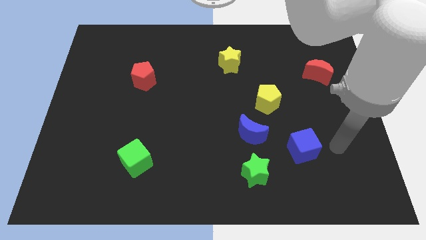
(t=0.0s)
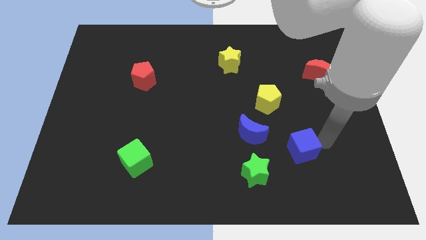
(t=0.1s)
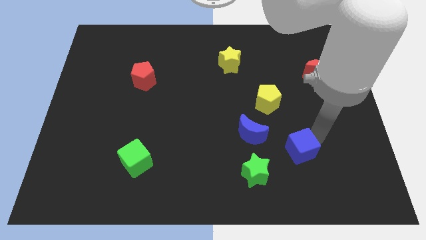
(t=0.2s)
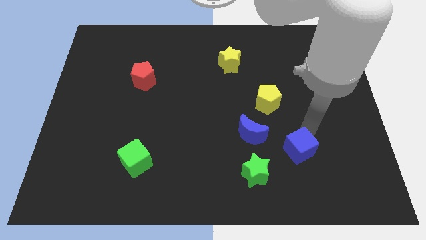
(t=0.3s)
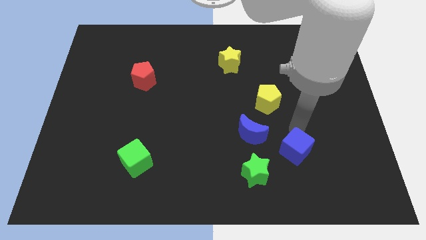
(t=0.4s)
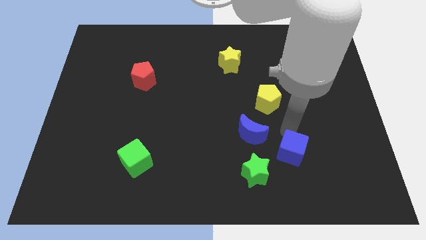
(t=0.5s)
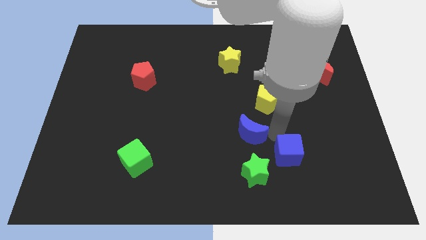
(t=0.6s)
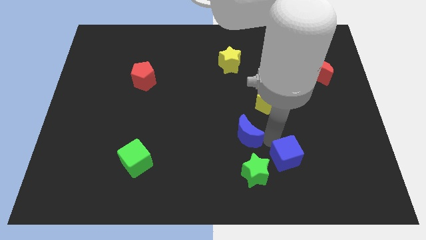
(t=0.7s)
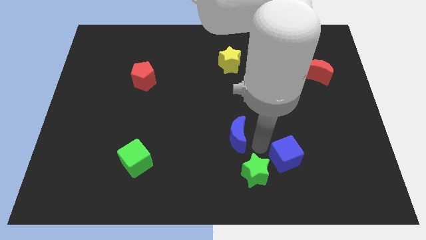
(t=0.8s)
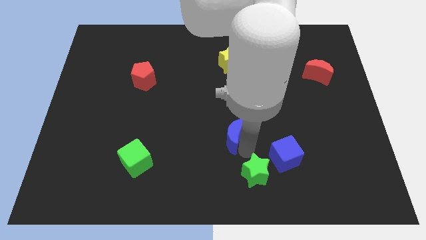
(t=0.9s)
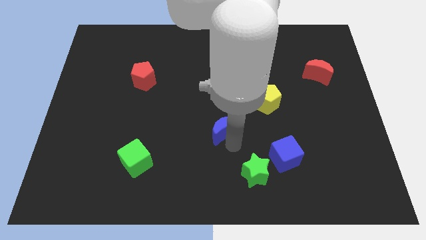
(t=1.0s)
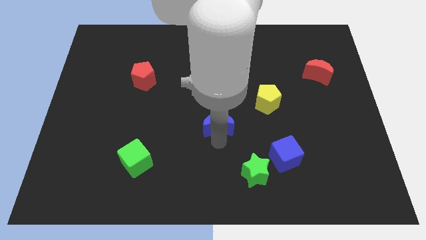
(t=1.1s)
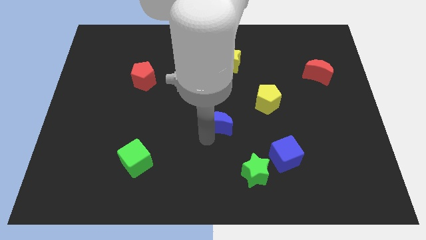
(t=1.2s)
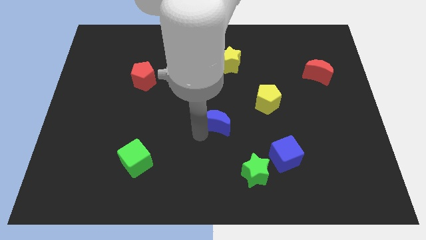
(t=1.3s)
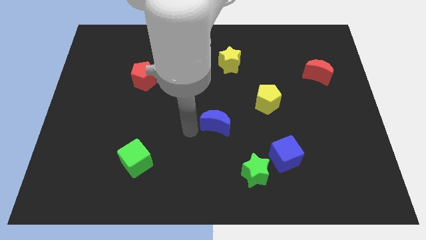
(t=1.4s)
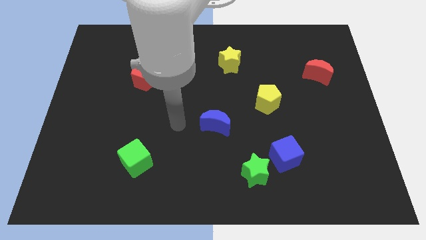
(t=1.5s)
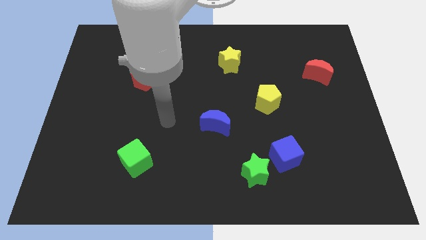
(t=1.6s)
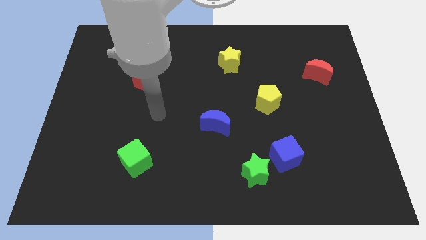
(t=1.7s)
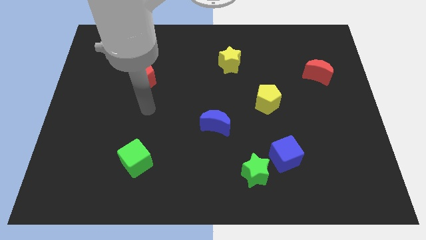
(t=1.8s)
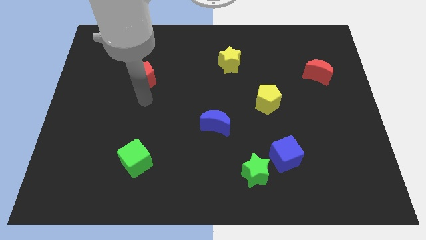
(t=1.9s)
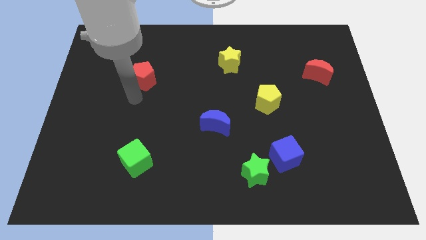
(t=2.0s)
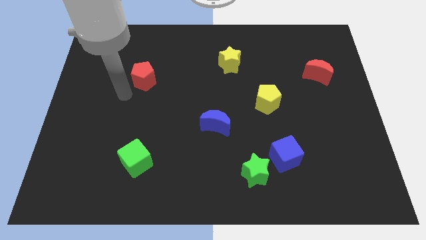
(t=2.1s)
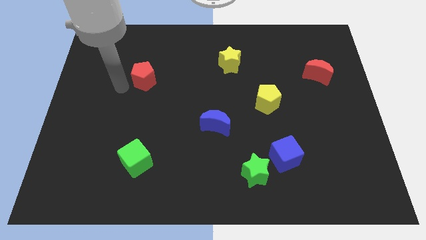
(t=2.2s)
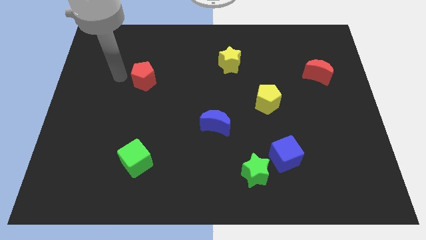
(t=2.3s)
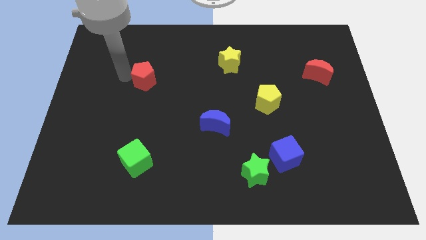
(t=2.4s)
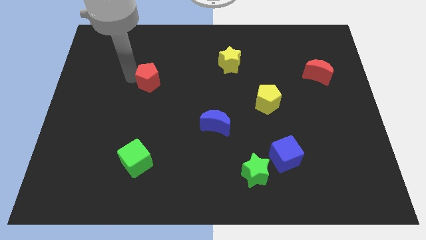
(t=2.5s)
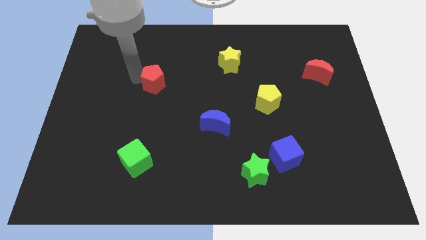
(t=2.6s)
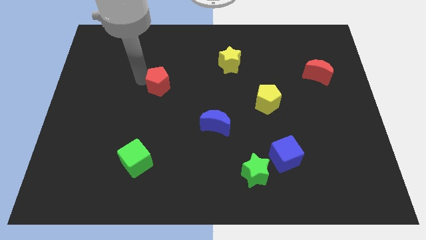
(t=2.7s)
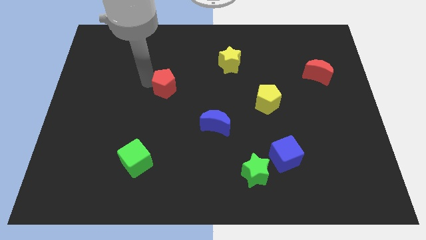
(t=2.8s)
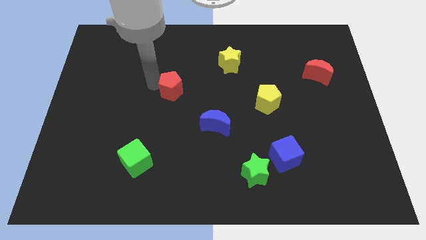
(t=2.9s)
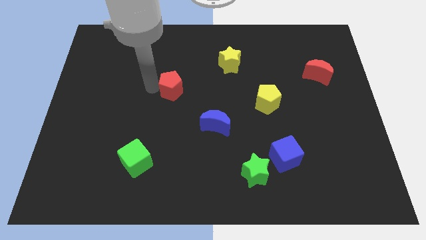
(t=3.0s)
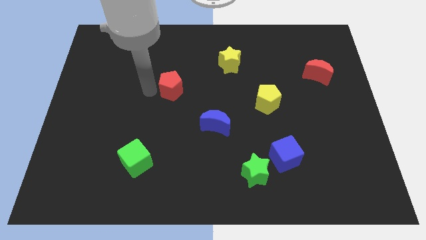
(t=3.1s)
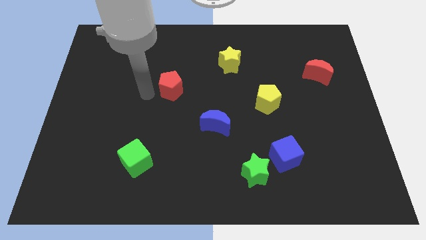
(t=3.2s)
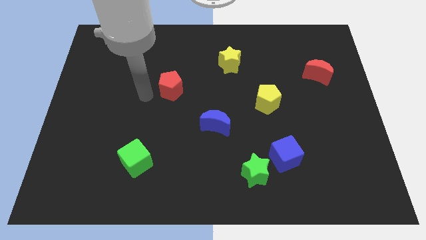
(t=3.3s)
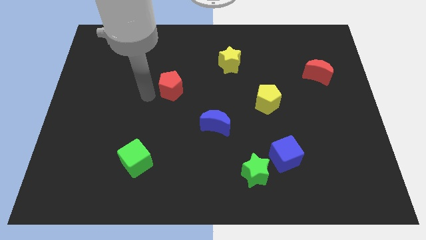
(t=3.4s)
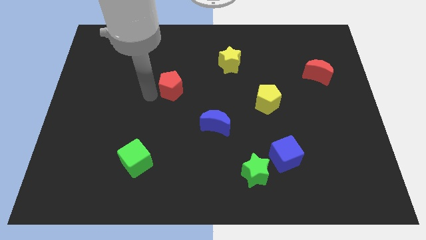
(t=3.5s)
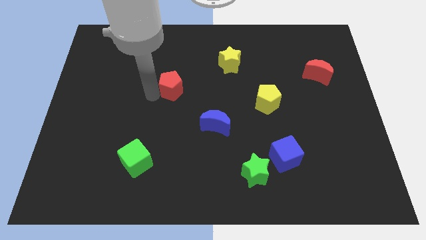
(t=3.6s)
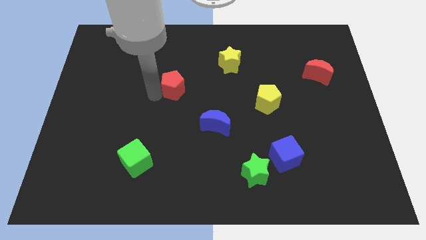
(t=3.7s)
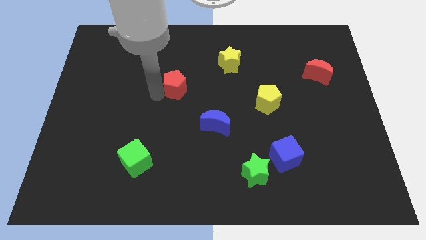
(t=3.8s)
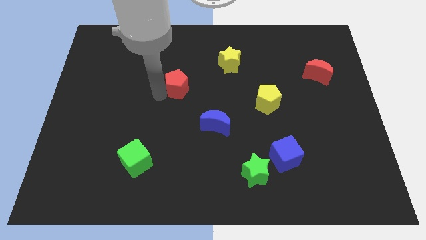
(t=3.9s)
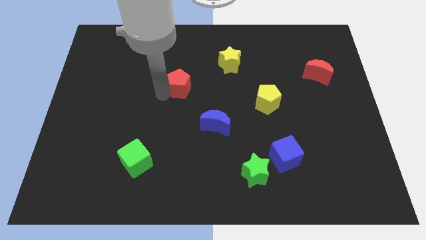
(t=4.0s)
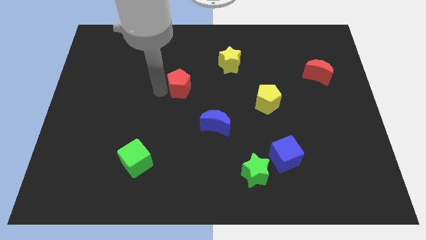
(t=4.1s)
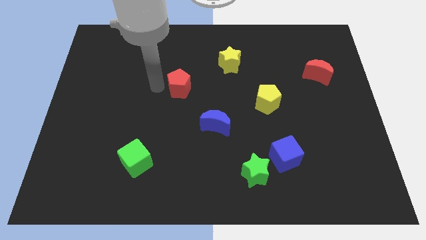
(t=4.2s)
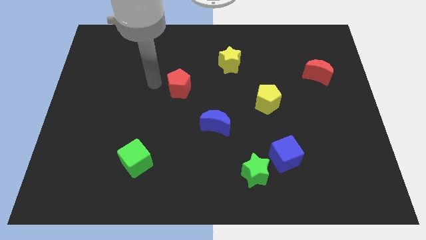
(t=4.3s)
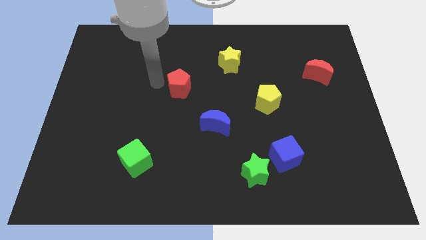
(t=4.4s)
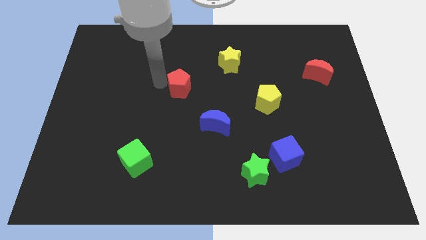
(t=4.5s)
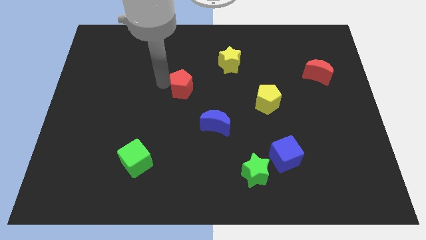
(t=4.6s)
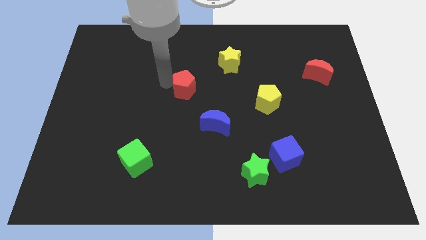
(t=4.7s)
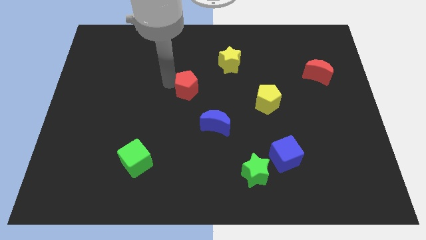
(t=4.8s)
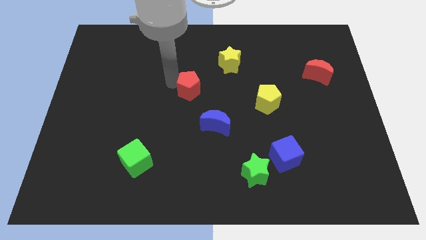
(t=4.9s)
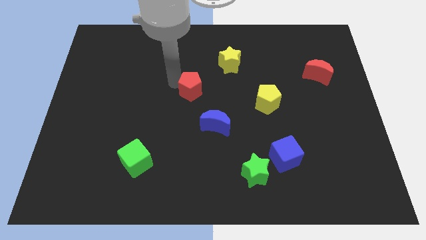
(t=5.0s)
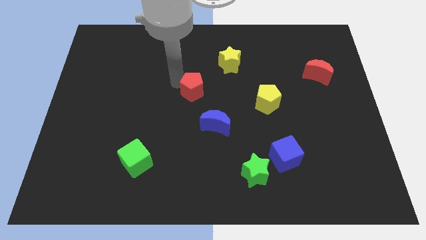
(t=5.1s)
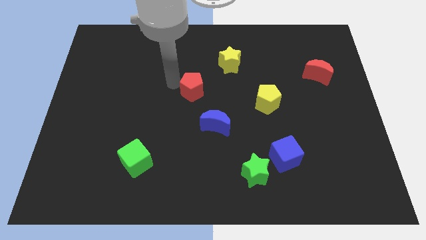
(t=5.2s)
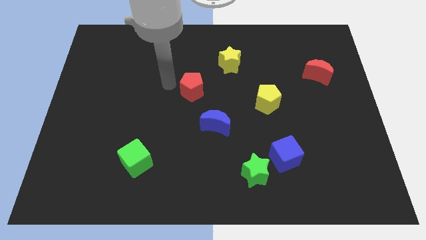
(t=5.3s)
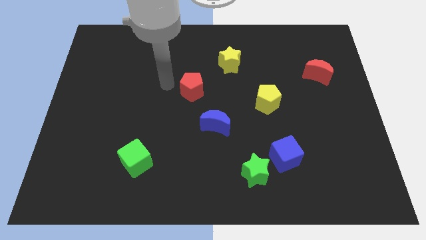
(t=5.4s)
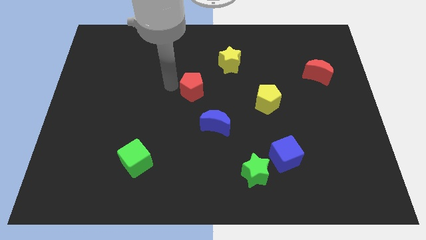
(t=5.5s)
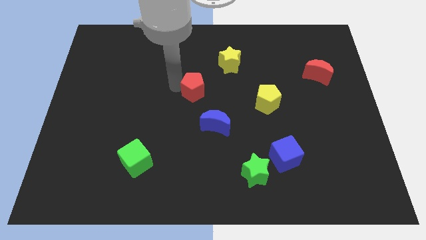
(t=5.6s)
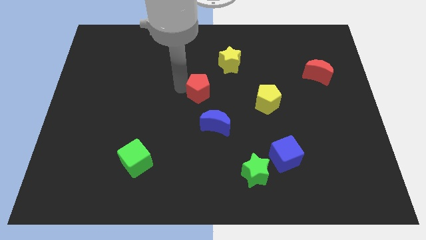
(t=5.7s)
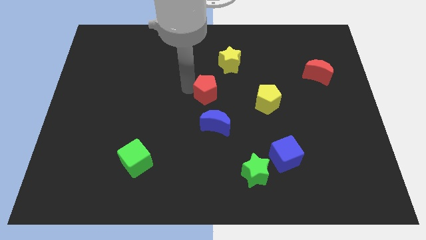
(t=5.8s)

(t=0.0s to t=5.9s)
move the red pentagon just left of the yellow pentagon
